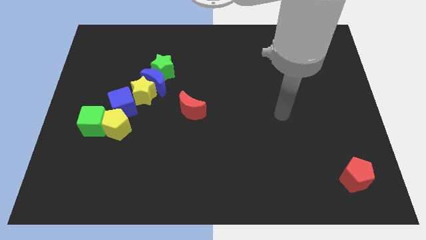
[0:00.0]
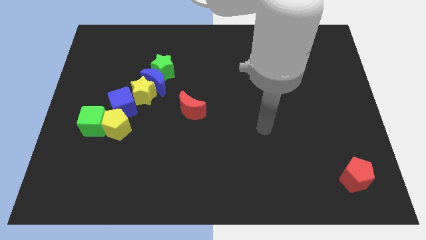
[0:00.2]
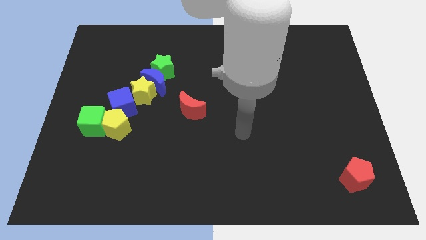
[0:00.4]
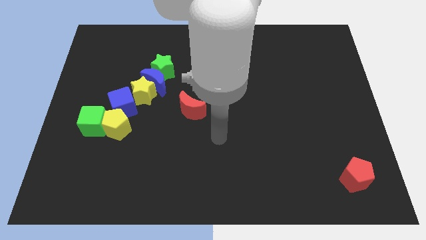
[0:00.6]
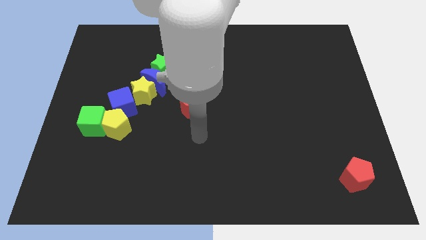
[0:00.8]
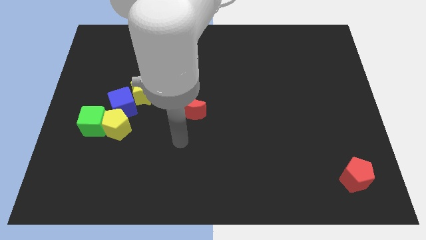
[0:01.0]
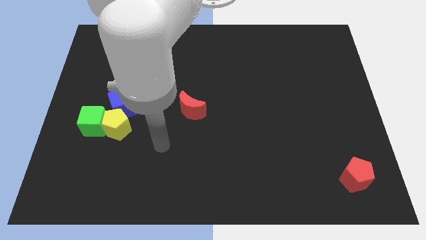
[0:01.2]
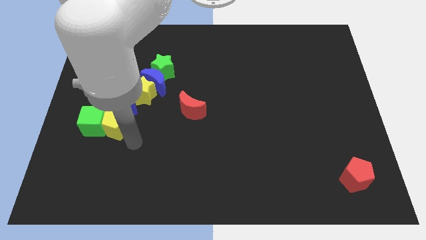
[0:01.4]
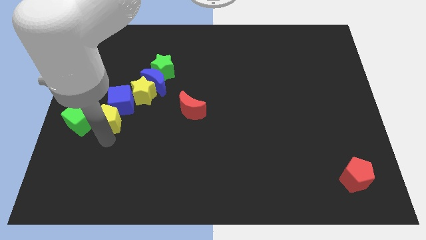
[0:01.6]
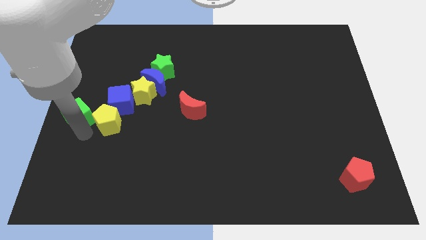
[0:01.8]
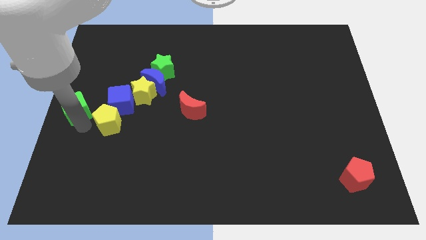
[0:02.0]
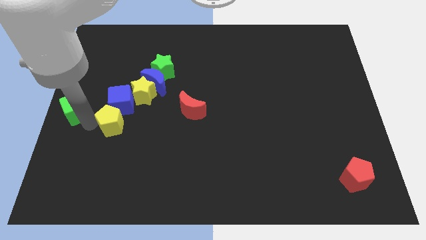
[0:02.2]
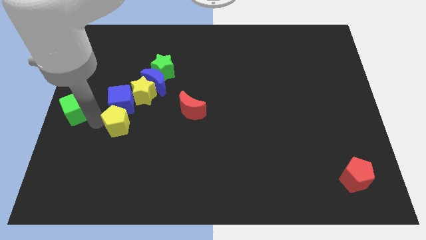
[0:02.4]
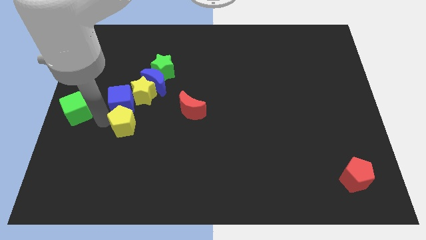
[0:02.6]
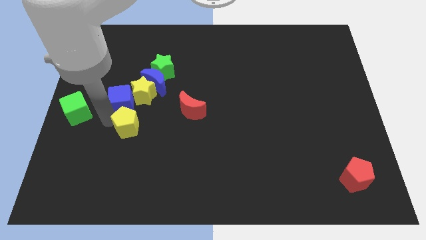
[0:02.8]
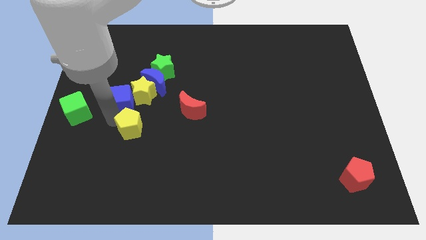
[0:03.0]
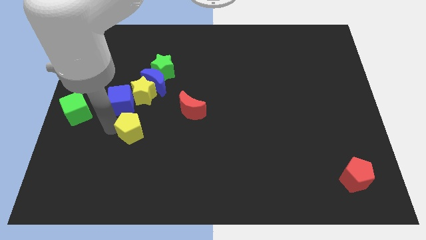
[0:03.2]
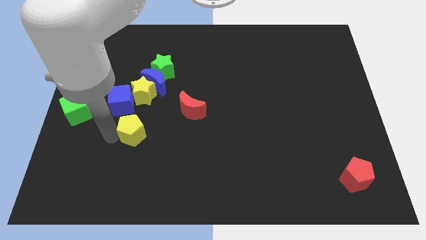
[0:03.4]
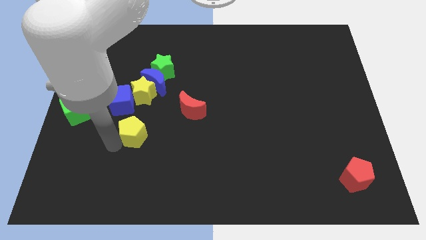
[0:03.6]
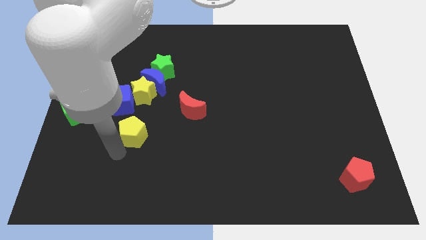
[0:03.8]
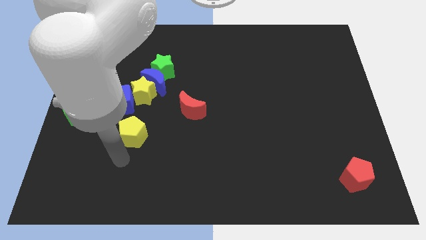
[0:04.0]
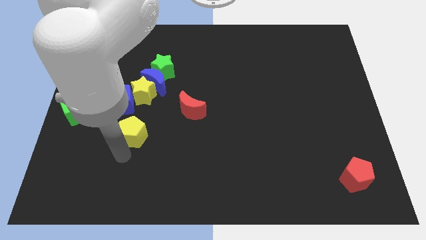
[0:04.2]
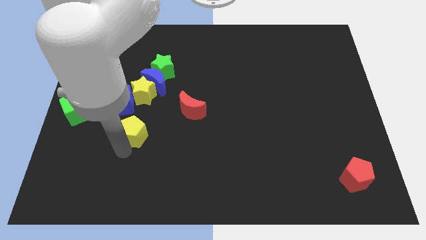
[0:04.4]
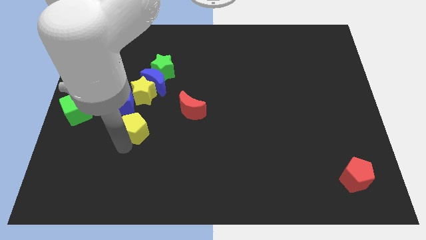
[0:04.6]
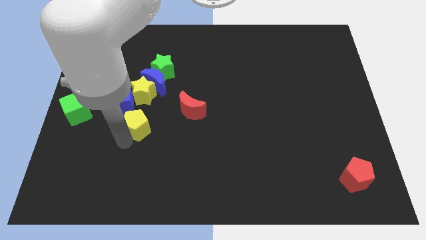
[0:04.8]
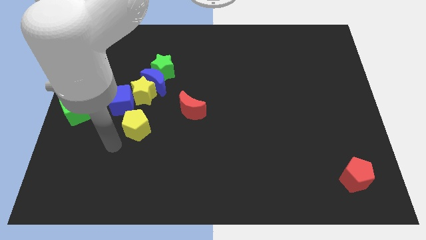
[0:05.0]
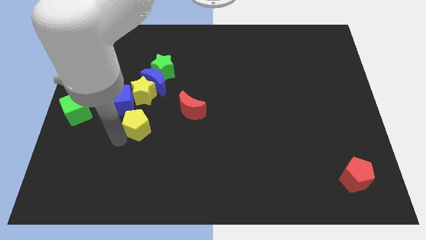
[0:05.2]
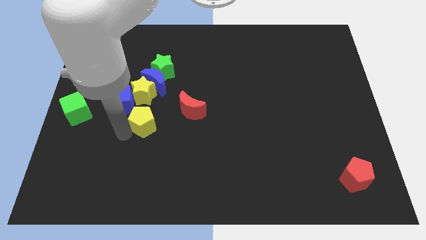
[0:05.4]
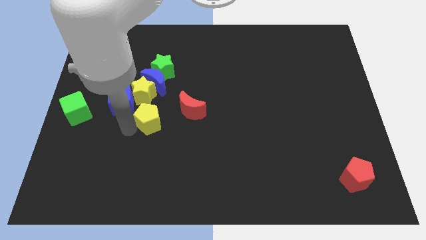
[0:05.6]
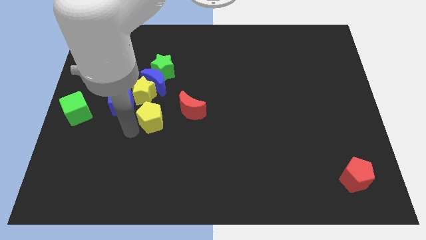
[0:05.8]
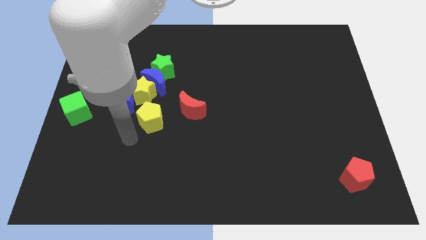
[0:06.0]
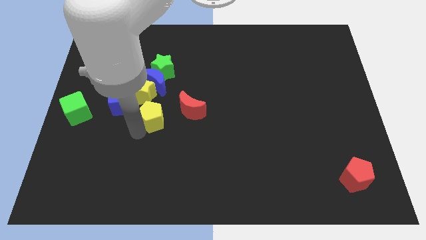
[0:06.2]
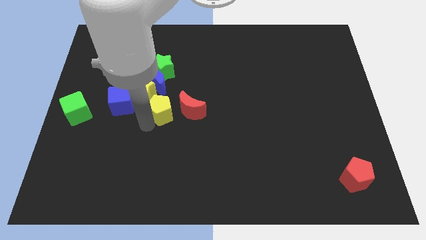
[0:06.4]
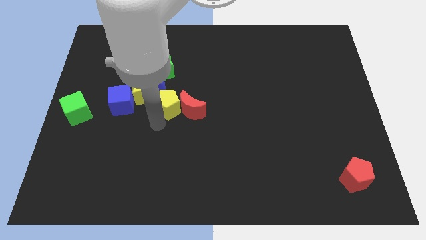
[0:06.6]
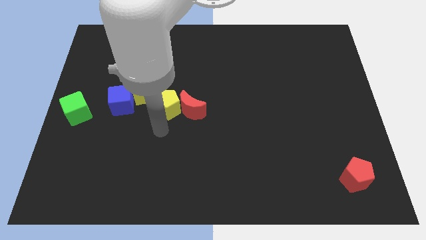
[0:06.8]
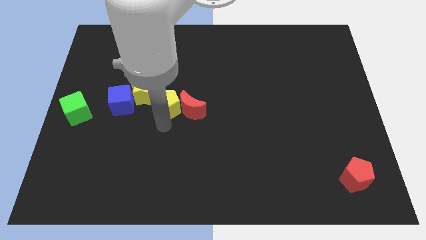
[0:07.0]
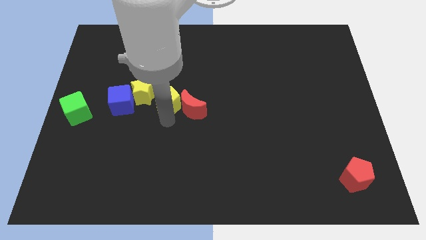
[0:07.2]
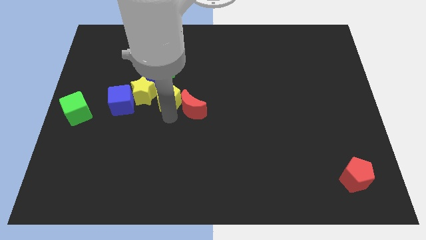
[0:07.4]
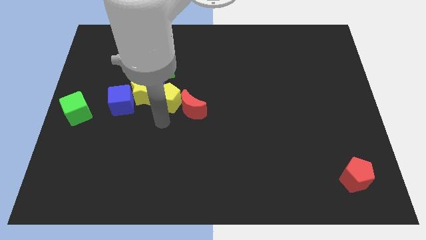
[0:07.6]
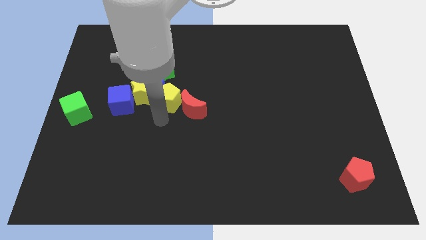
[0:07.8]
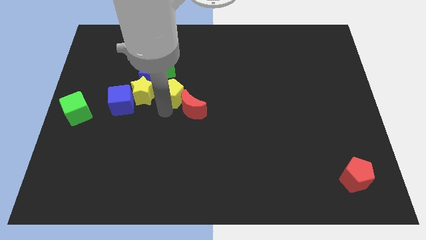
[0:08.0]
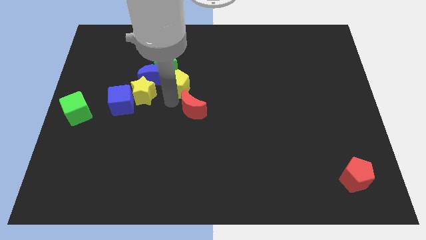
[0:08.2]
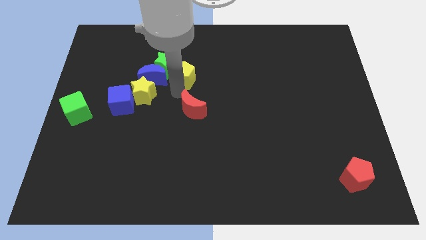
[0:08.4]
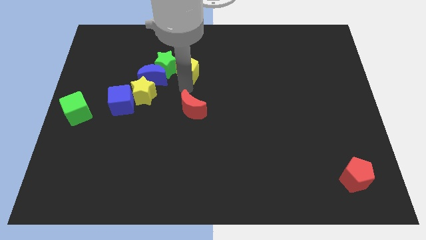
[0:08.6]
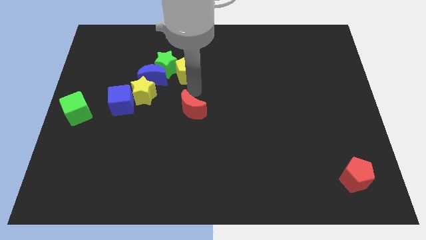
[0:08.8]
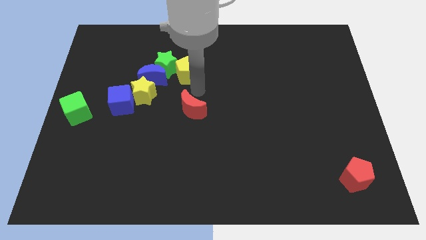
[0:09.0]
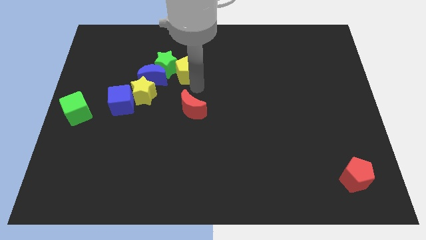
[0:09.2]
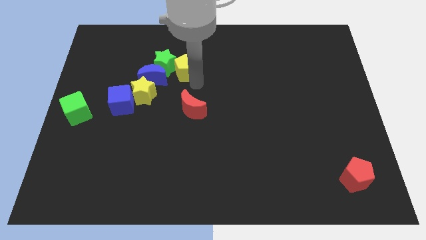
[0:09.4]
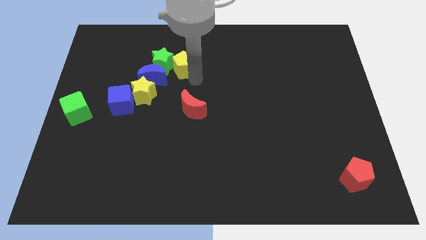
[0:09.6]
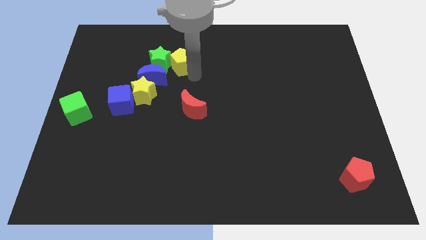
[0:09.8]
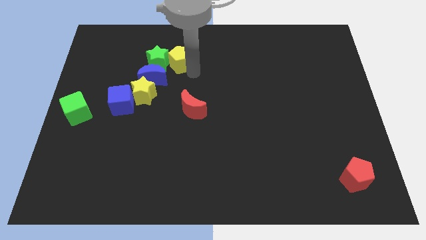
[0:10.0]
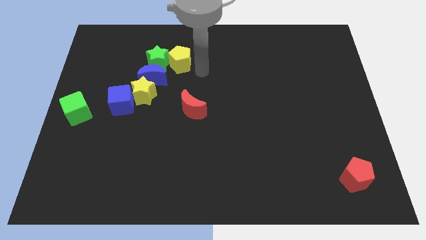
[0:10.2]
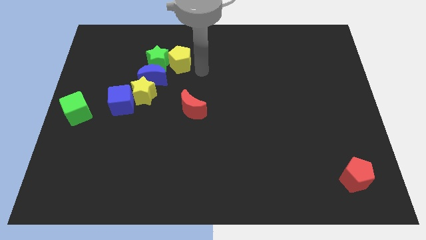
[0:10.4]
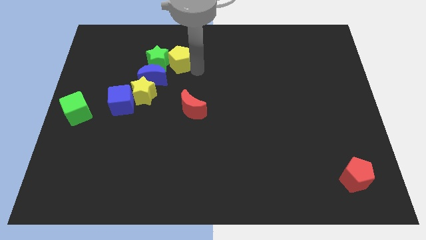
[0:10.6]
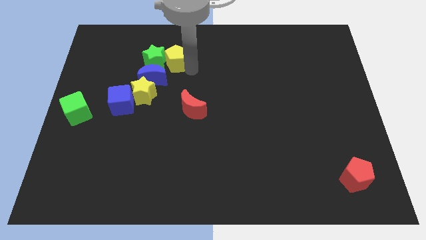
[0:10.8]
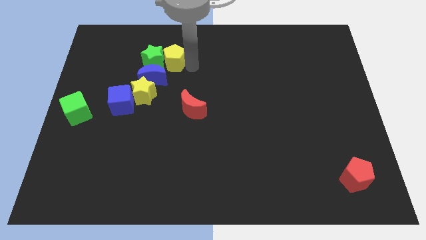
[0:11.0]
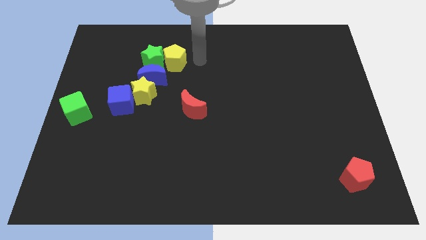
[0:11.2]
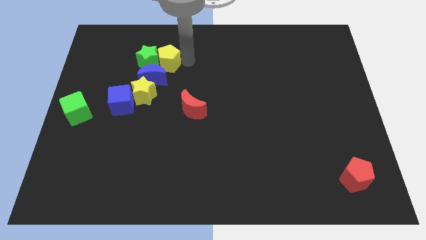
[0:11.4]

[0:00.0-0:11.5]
push the yellow pentagon above the yellow star

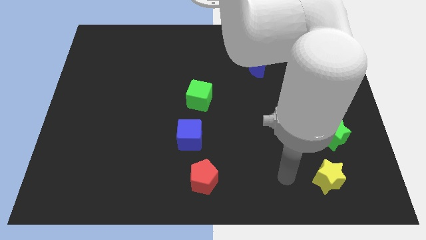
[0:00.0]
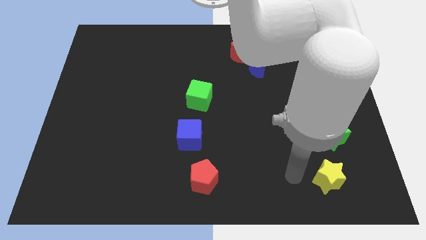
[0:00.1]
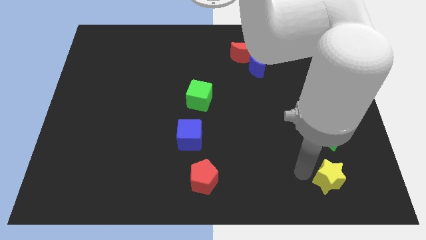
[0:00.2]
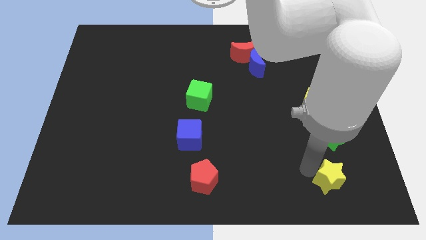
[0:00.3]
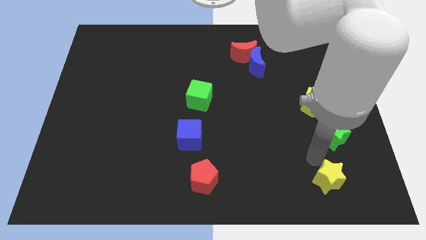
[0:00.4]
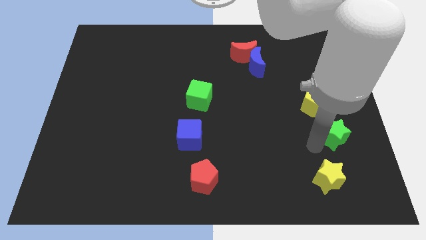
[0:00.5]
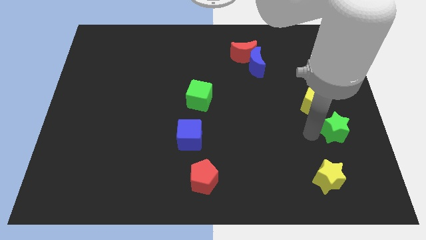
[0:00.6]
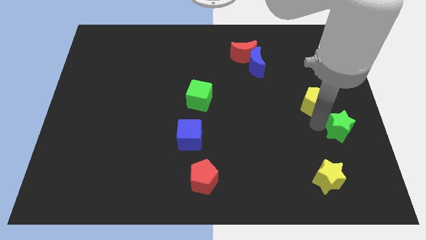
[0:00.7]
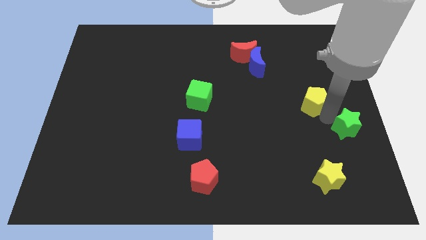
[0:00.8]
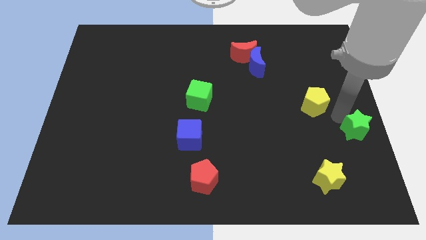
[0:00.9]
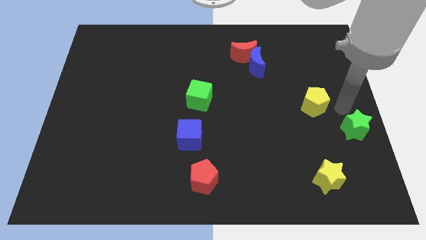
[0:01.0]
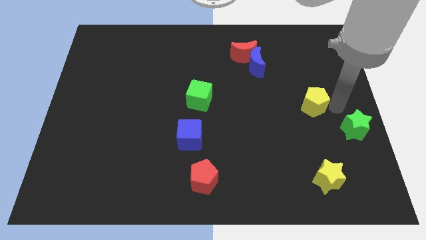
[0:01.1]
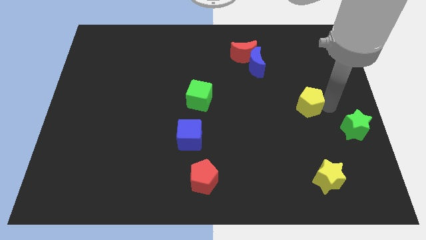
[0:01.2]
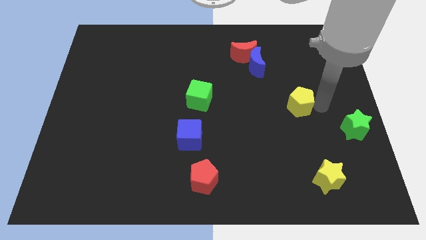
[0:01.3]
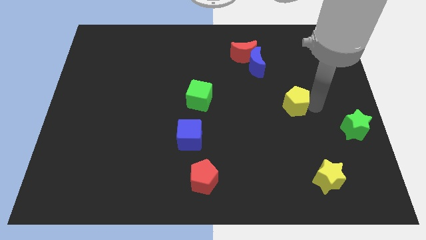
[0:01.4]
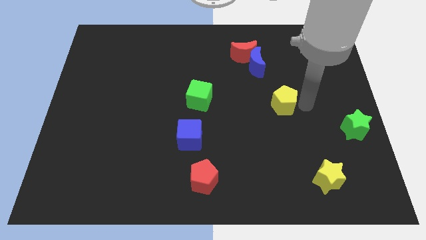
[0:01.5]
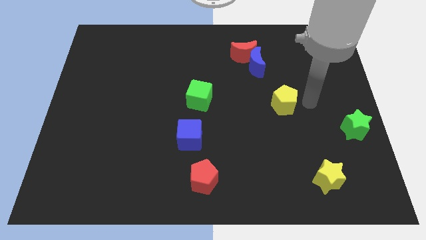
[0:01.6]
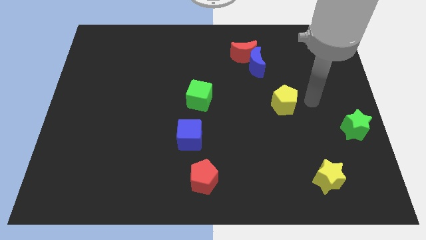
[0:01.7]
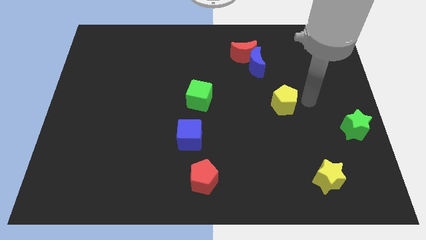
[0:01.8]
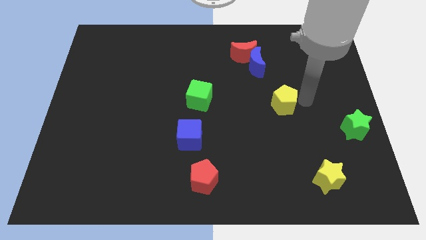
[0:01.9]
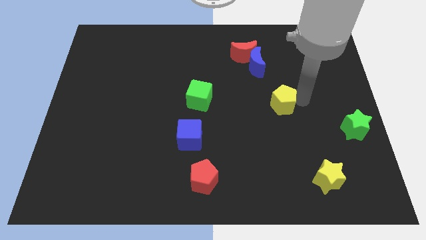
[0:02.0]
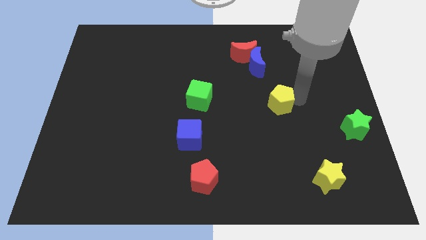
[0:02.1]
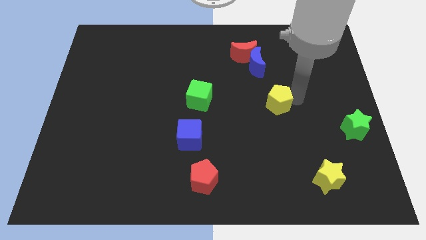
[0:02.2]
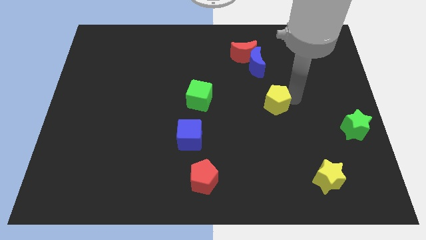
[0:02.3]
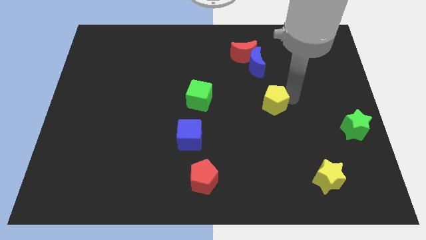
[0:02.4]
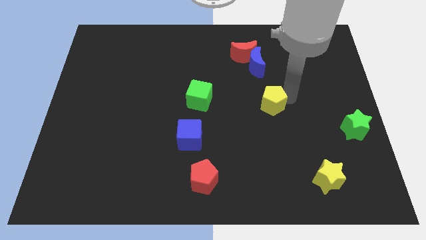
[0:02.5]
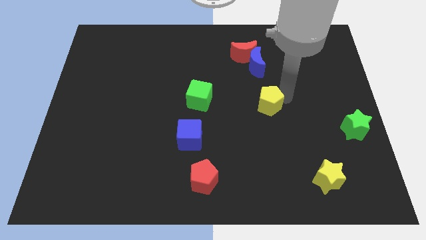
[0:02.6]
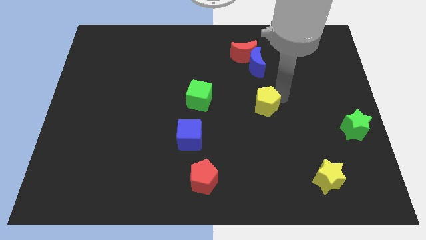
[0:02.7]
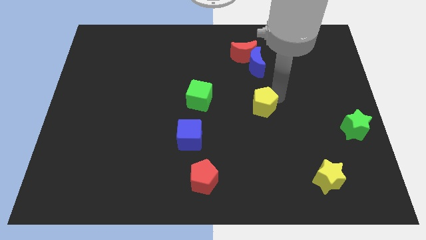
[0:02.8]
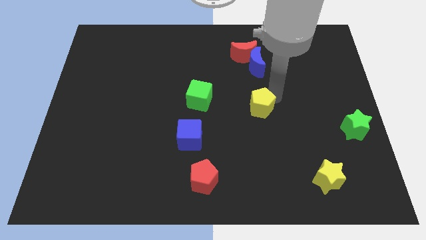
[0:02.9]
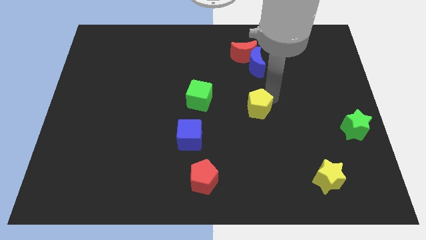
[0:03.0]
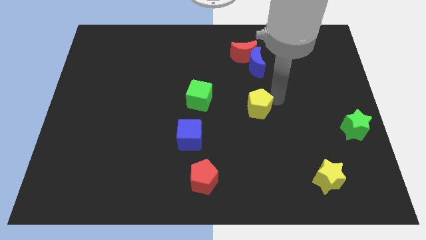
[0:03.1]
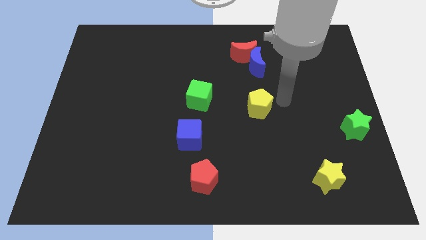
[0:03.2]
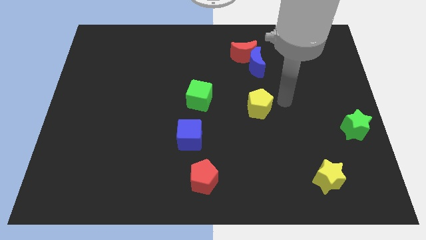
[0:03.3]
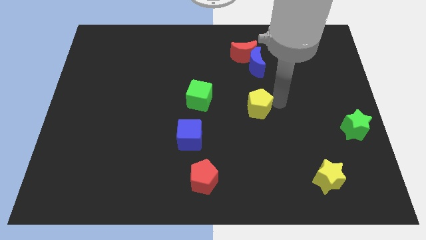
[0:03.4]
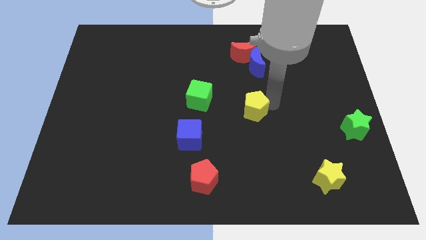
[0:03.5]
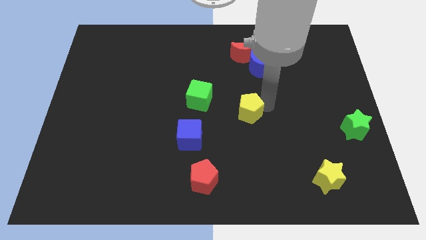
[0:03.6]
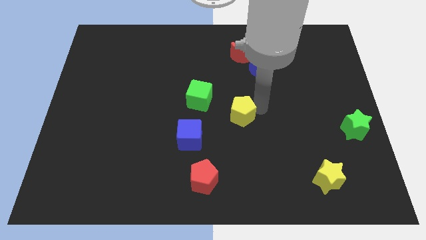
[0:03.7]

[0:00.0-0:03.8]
put the yellow pentagon to the bottom right of the green cube
